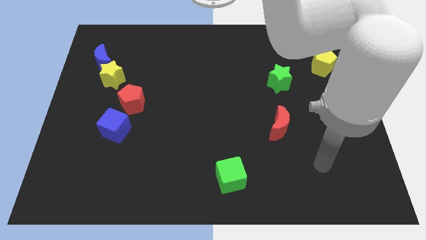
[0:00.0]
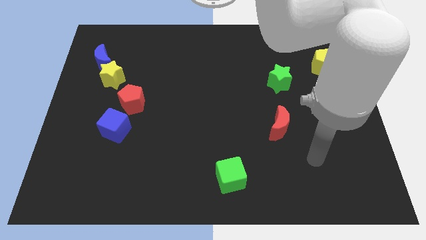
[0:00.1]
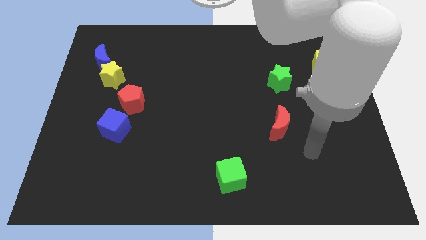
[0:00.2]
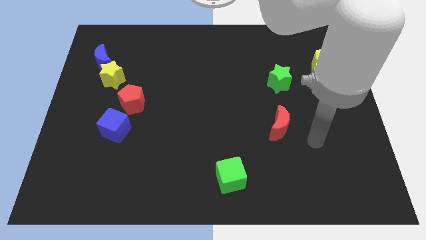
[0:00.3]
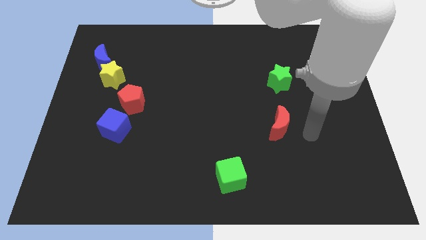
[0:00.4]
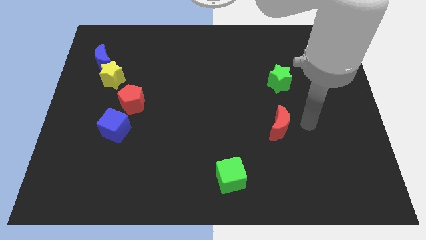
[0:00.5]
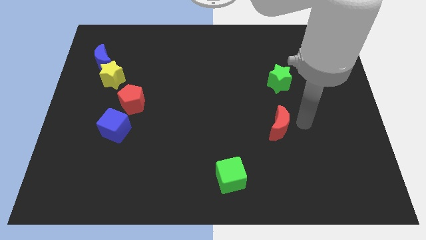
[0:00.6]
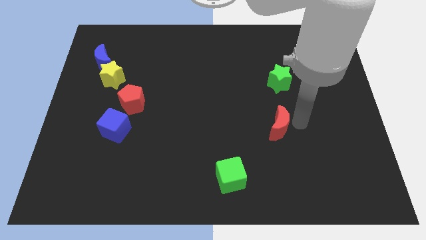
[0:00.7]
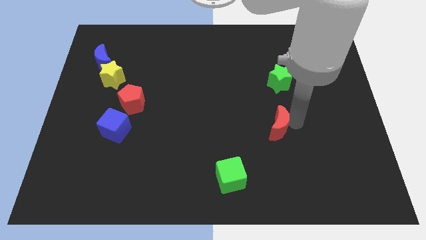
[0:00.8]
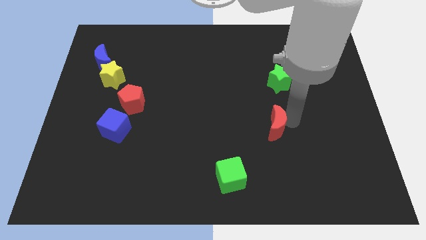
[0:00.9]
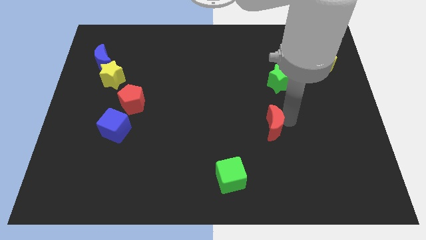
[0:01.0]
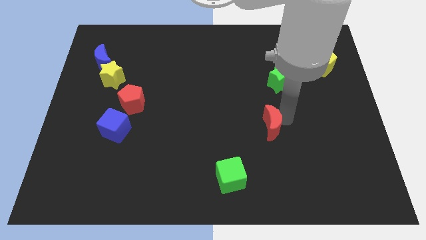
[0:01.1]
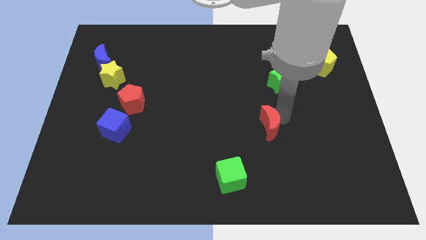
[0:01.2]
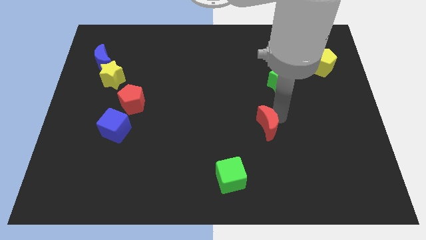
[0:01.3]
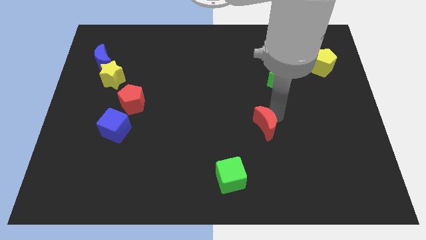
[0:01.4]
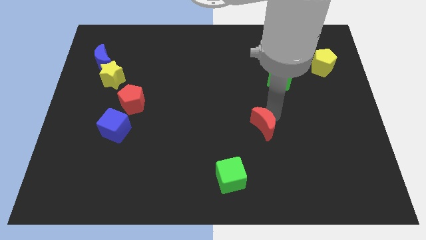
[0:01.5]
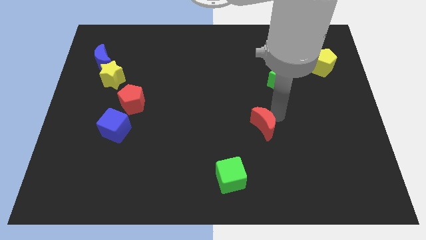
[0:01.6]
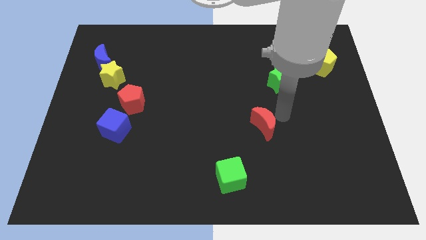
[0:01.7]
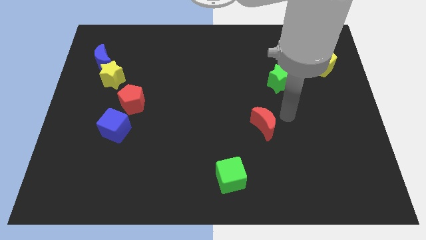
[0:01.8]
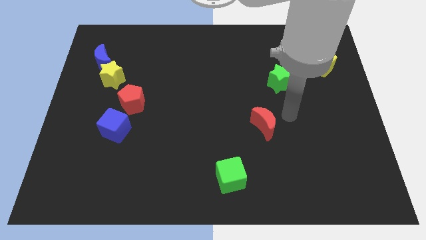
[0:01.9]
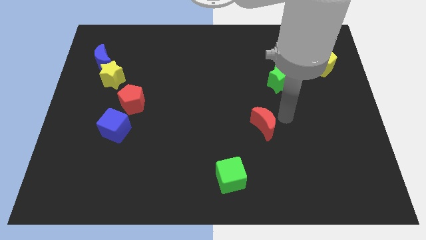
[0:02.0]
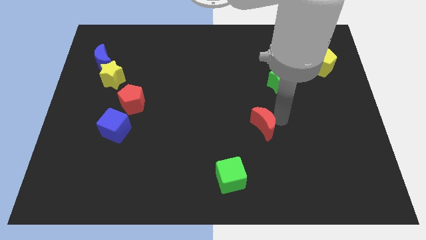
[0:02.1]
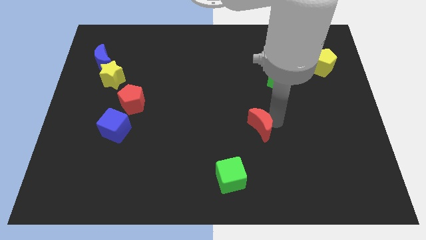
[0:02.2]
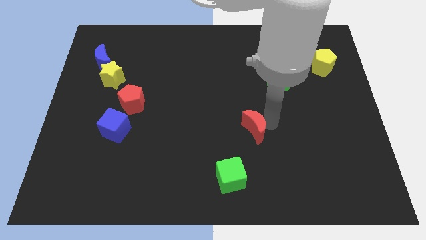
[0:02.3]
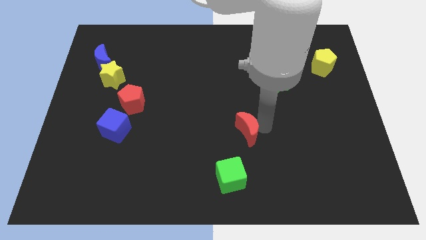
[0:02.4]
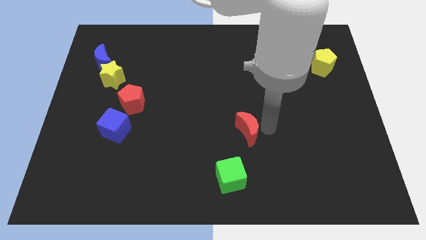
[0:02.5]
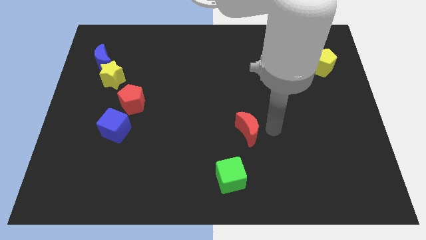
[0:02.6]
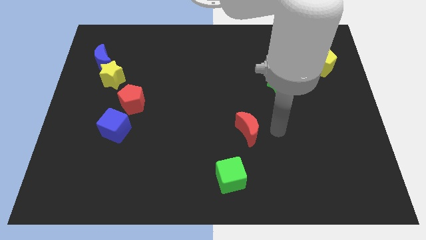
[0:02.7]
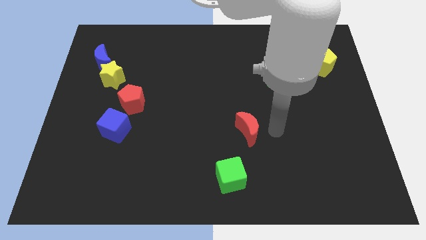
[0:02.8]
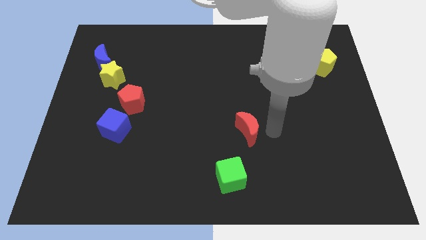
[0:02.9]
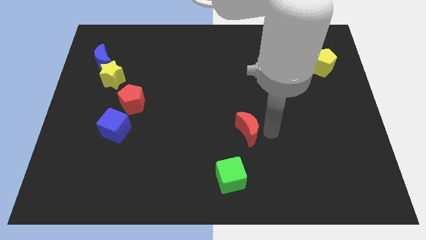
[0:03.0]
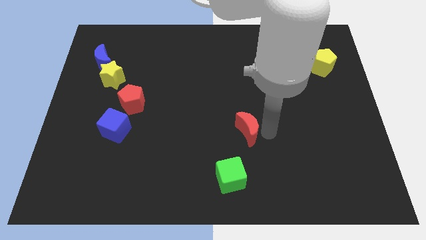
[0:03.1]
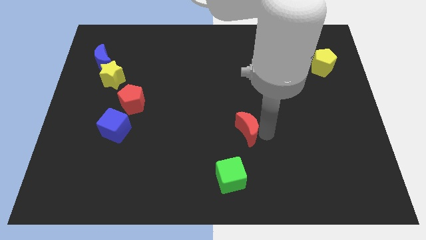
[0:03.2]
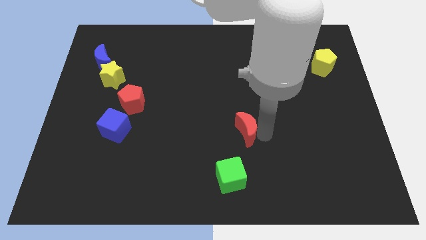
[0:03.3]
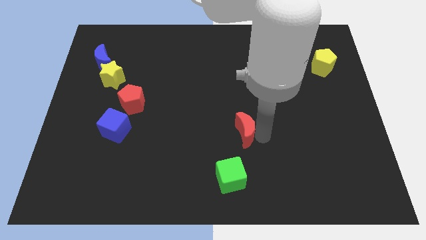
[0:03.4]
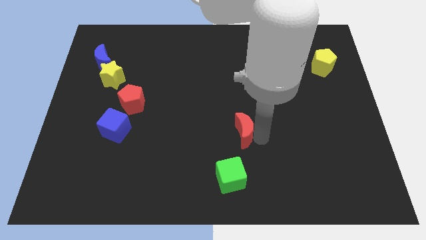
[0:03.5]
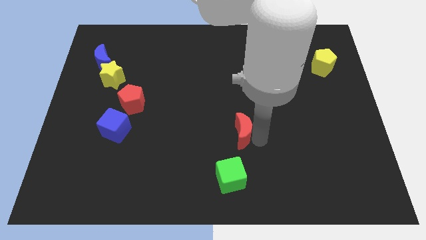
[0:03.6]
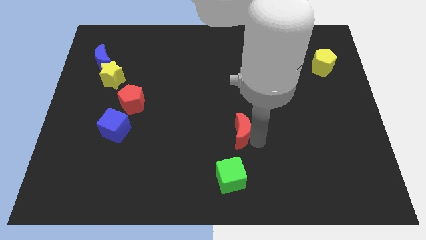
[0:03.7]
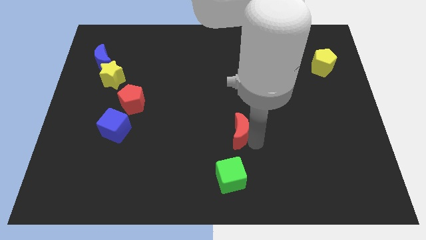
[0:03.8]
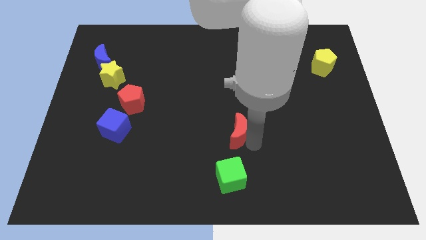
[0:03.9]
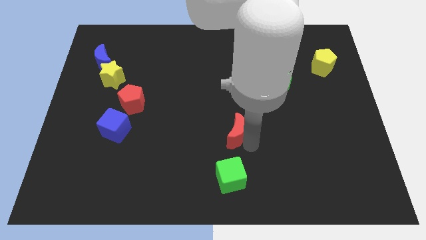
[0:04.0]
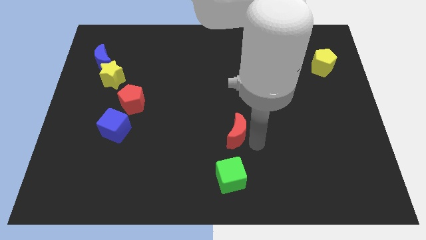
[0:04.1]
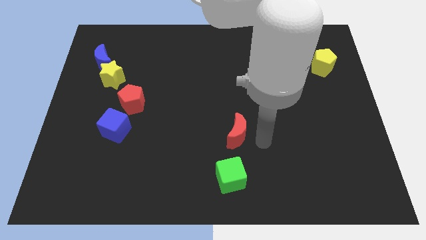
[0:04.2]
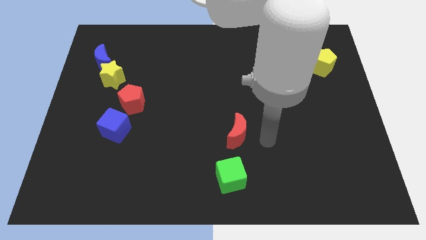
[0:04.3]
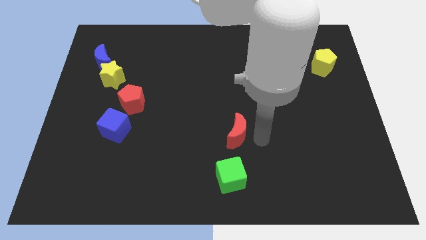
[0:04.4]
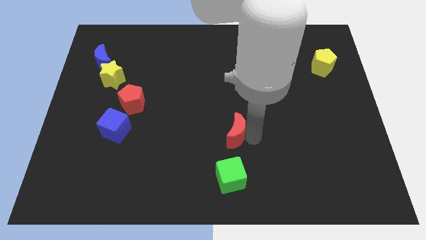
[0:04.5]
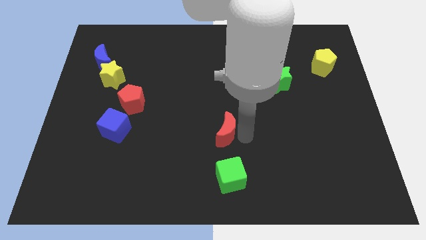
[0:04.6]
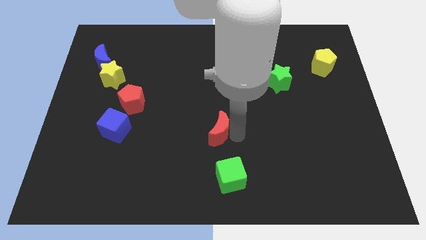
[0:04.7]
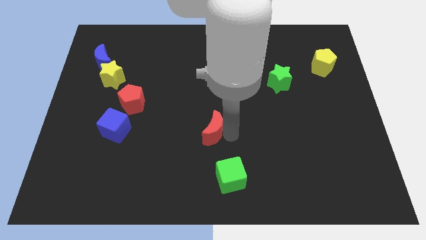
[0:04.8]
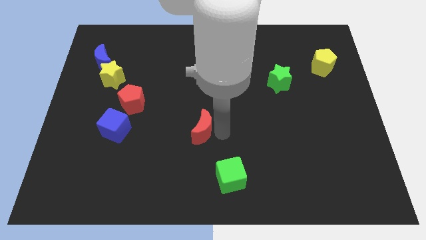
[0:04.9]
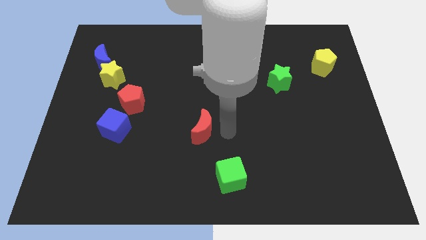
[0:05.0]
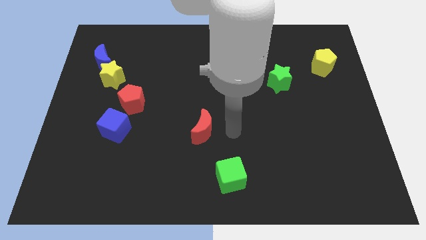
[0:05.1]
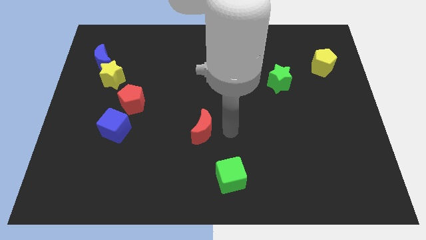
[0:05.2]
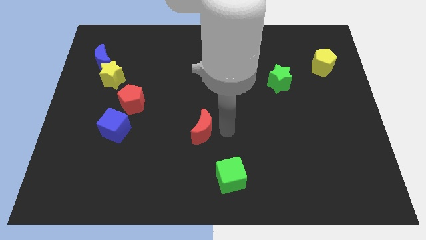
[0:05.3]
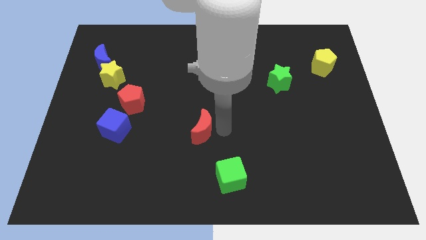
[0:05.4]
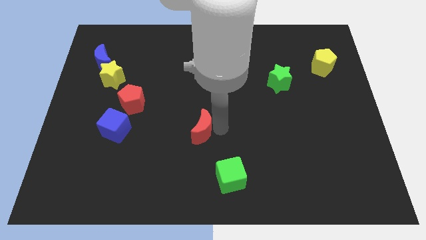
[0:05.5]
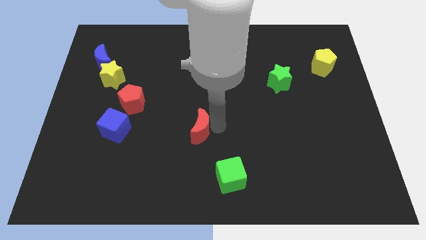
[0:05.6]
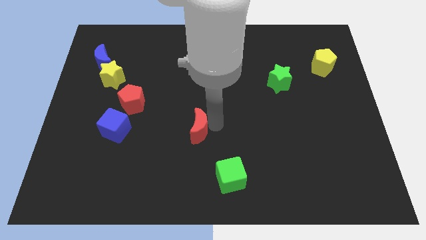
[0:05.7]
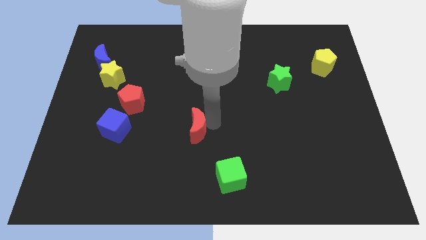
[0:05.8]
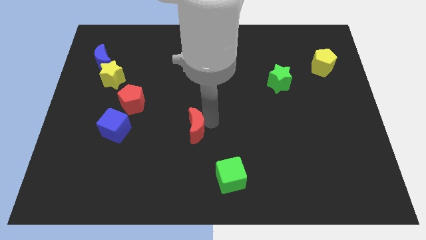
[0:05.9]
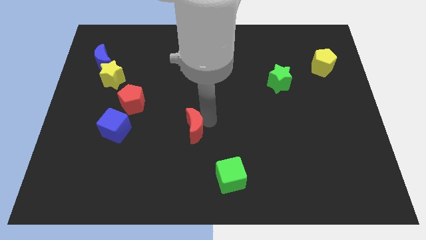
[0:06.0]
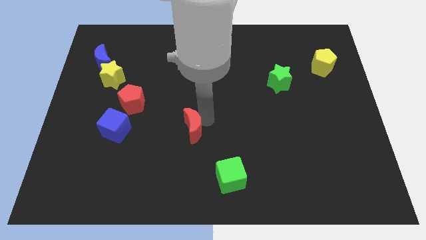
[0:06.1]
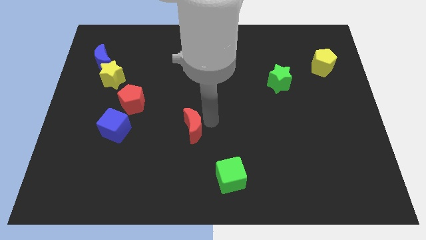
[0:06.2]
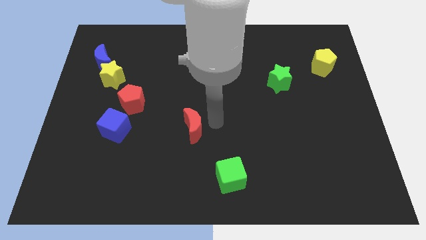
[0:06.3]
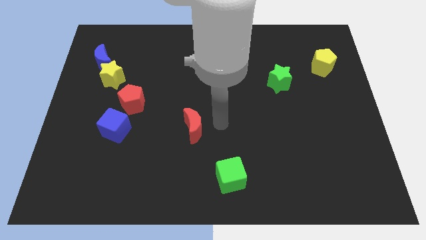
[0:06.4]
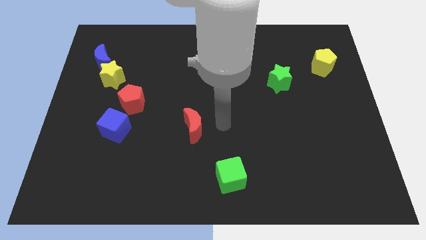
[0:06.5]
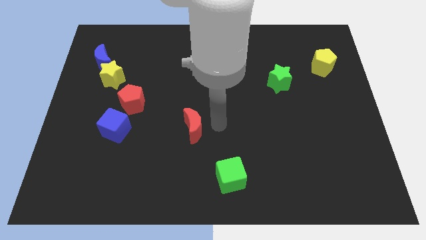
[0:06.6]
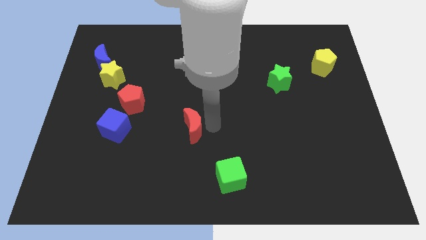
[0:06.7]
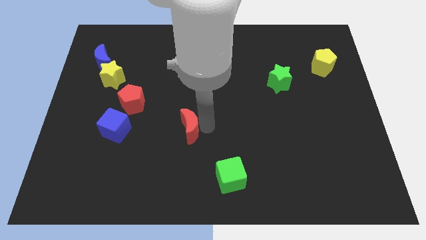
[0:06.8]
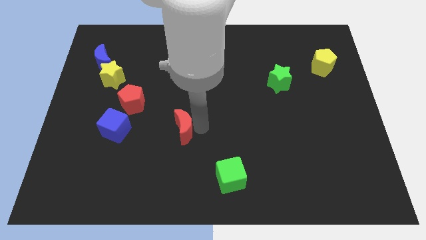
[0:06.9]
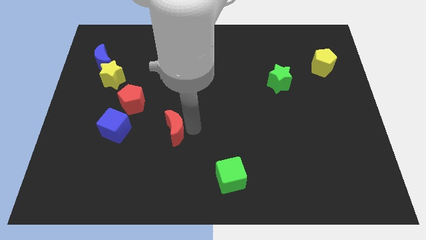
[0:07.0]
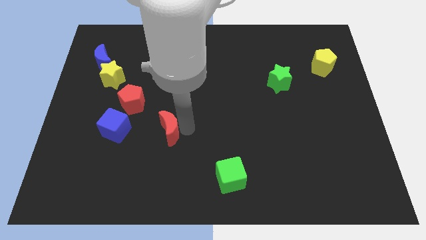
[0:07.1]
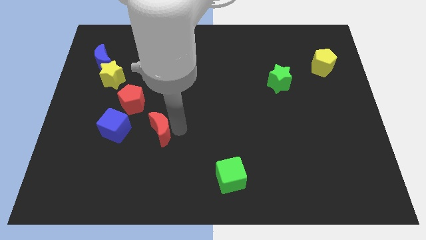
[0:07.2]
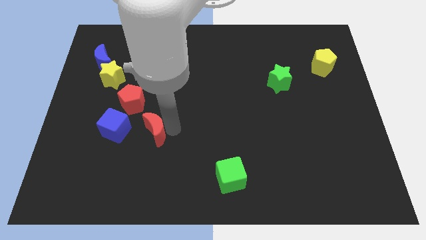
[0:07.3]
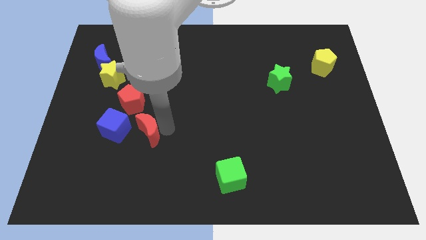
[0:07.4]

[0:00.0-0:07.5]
push the red moon to the bottom of the red pentagon
